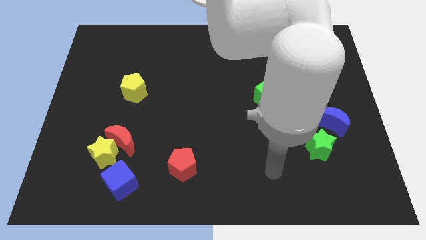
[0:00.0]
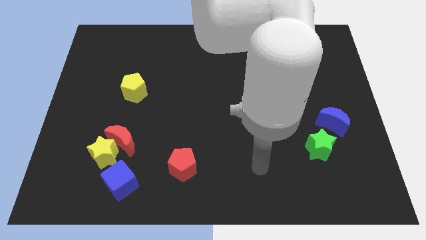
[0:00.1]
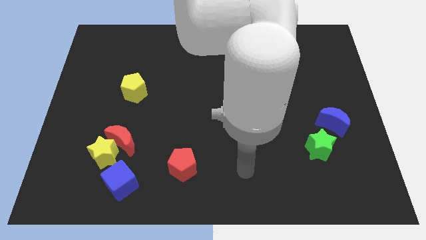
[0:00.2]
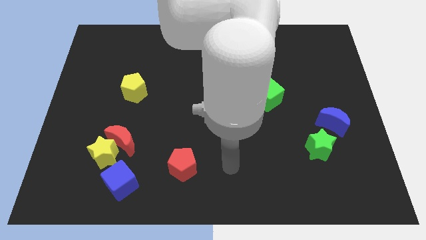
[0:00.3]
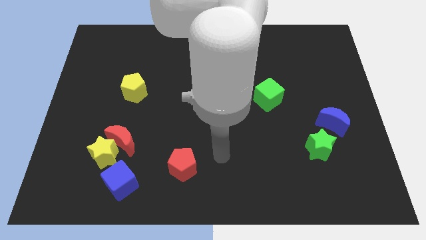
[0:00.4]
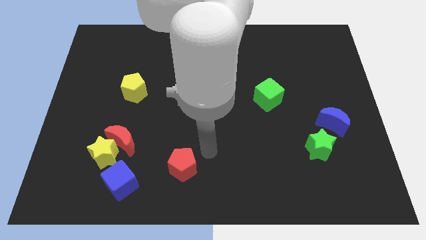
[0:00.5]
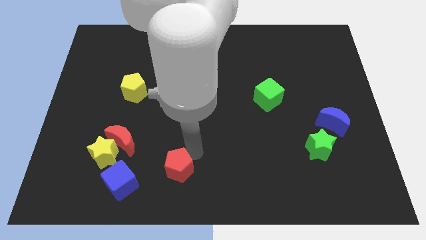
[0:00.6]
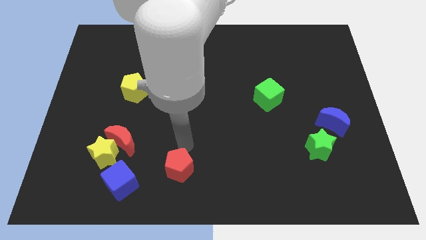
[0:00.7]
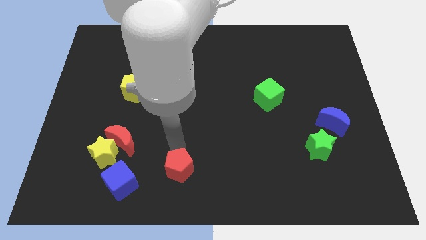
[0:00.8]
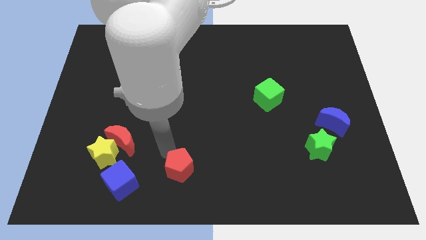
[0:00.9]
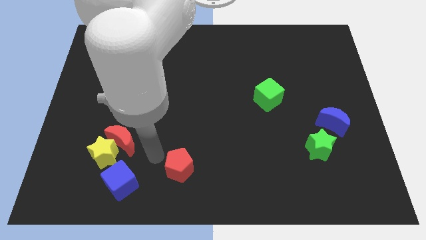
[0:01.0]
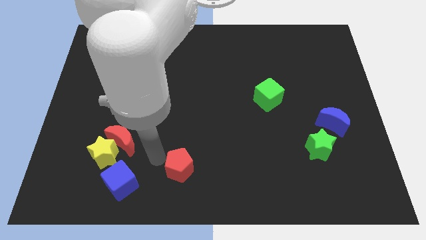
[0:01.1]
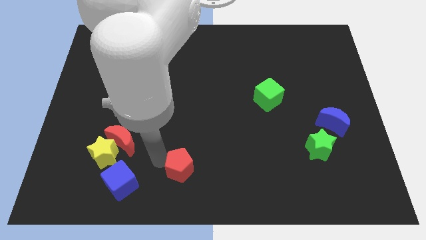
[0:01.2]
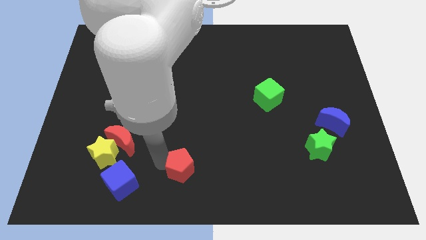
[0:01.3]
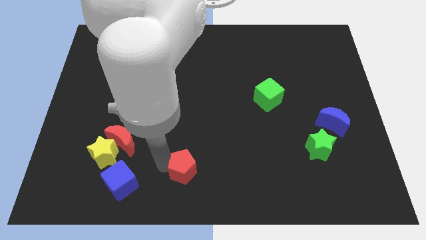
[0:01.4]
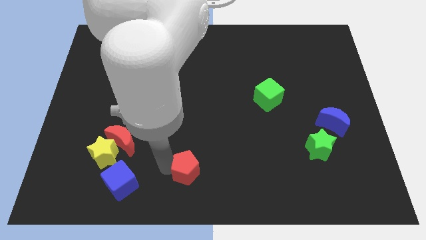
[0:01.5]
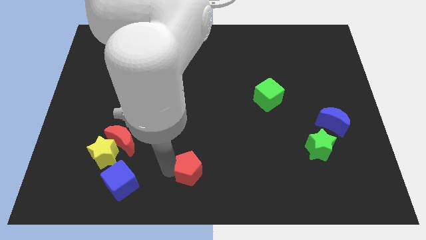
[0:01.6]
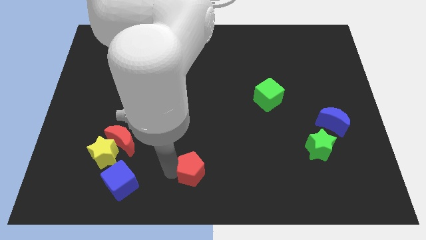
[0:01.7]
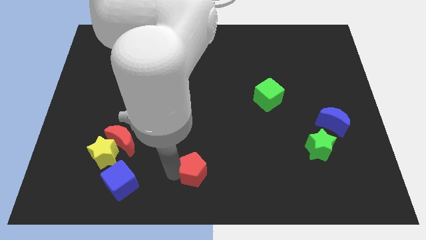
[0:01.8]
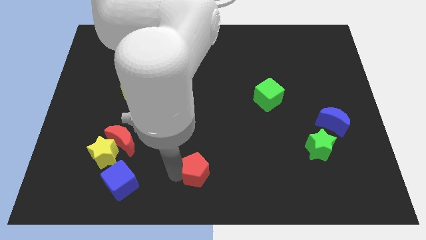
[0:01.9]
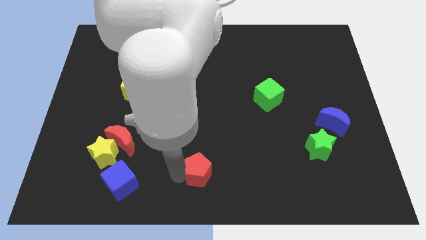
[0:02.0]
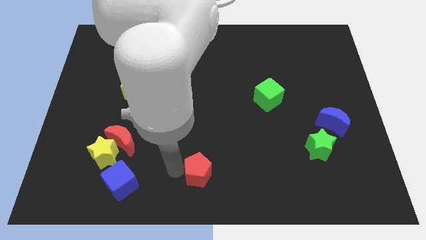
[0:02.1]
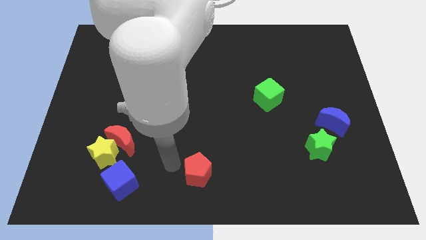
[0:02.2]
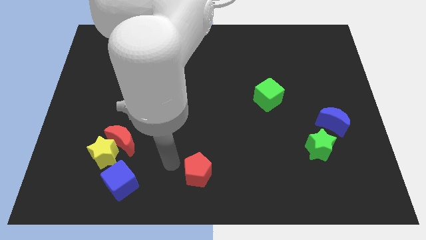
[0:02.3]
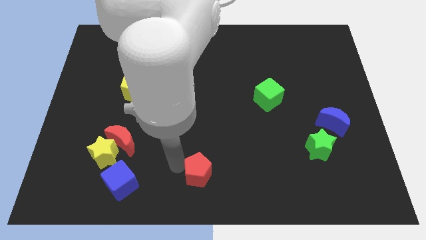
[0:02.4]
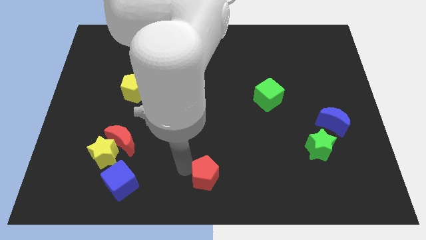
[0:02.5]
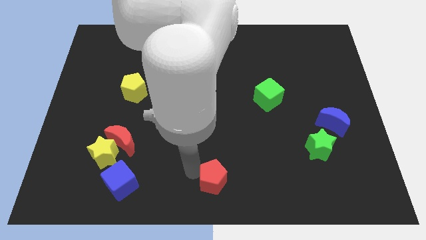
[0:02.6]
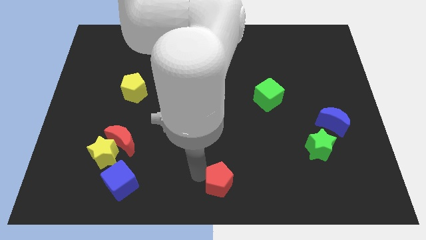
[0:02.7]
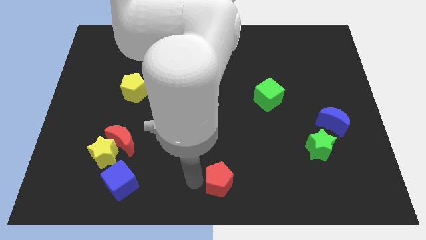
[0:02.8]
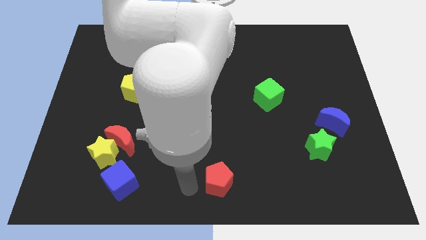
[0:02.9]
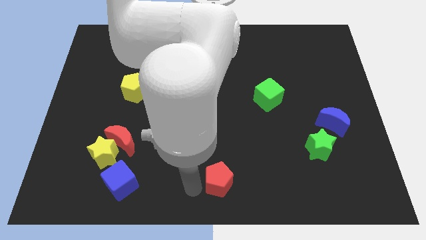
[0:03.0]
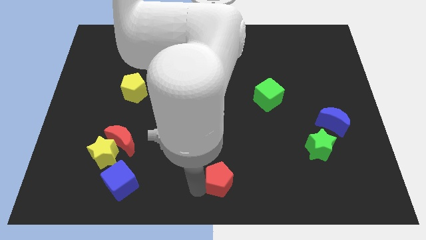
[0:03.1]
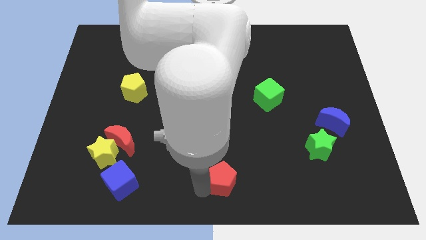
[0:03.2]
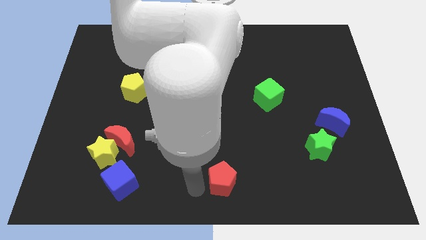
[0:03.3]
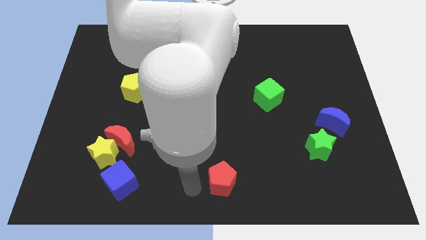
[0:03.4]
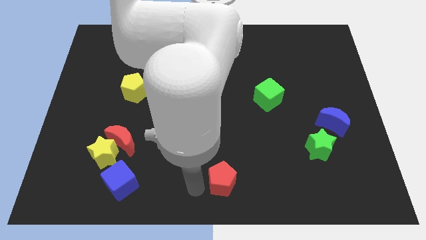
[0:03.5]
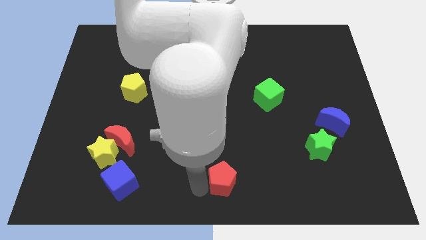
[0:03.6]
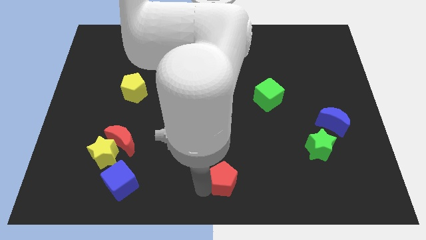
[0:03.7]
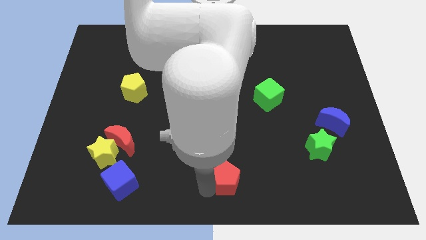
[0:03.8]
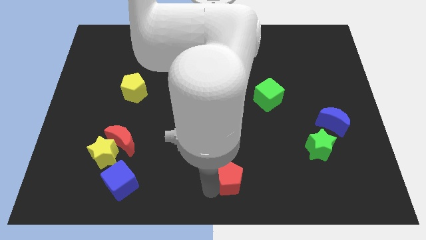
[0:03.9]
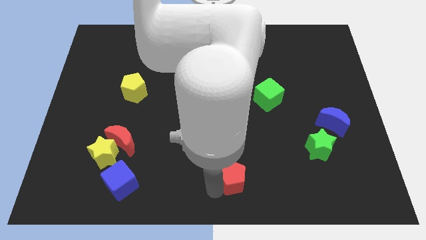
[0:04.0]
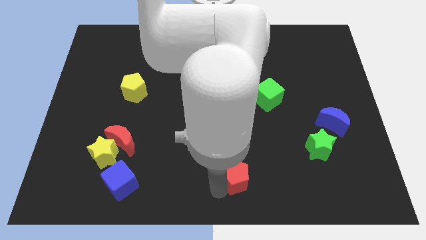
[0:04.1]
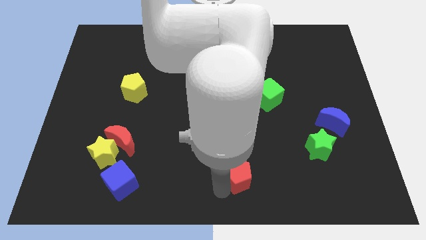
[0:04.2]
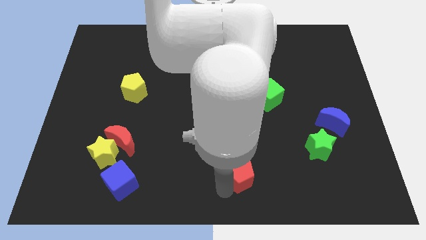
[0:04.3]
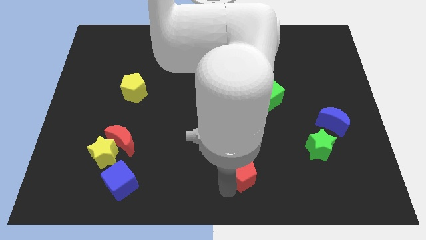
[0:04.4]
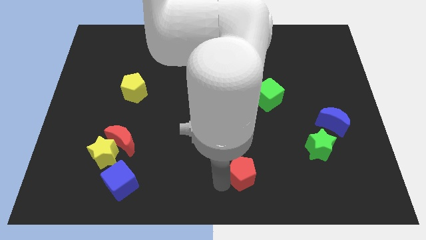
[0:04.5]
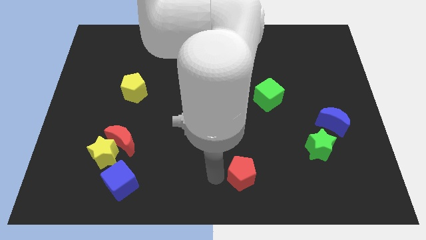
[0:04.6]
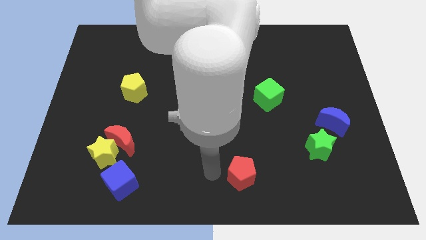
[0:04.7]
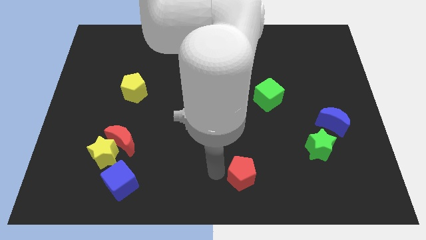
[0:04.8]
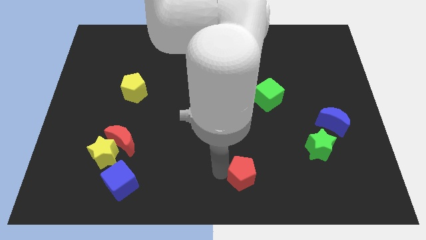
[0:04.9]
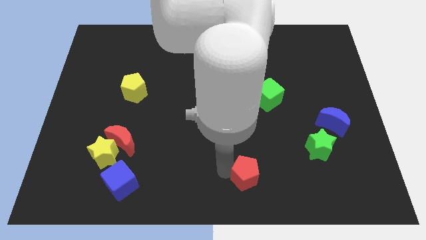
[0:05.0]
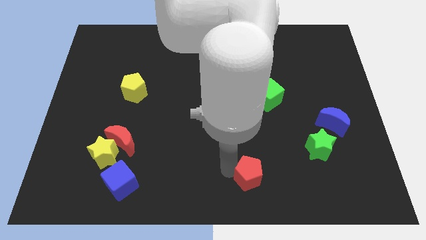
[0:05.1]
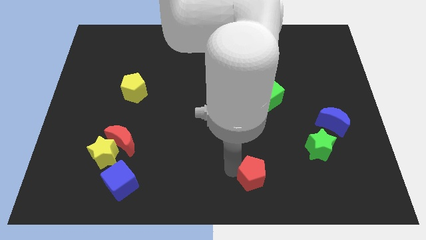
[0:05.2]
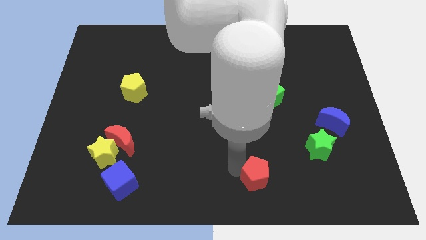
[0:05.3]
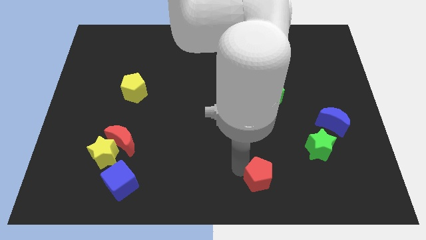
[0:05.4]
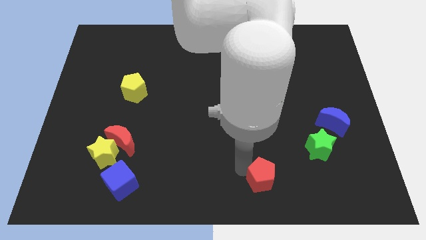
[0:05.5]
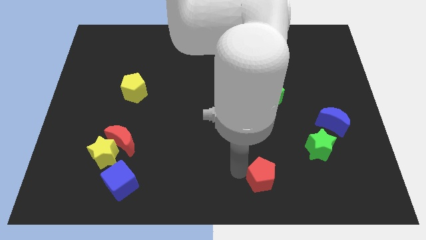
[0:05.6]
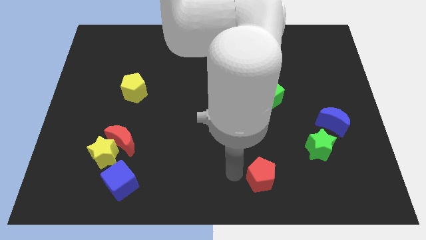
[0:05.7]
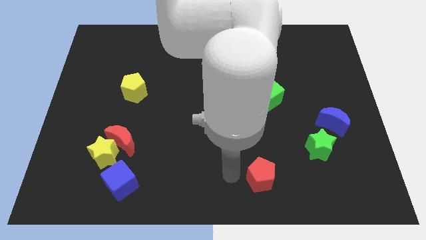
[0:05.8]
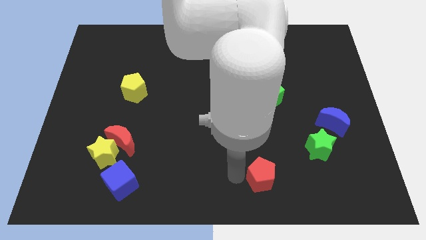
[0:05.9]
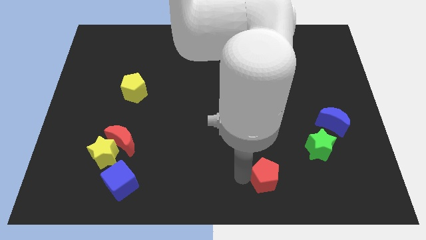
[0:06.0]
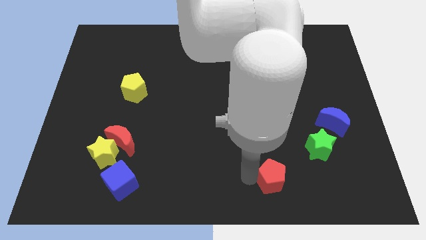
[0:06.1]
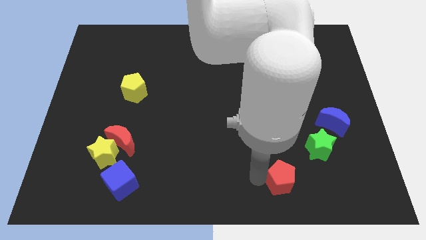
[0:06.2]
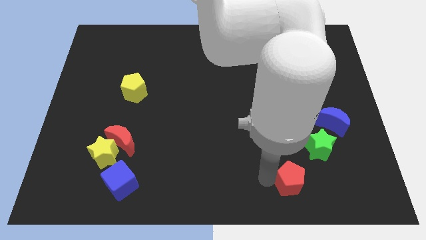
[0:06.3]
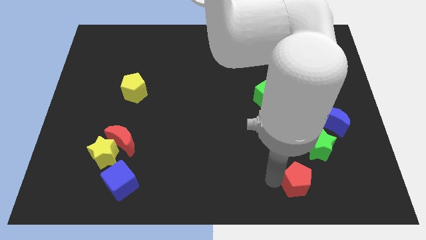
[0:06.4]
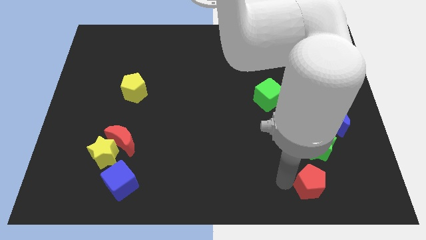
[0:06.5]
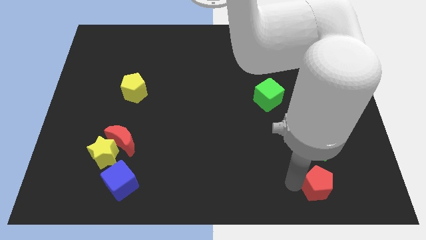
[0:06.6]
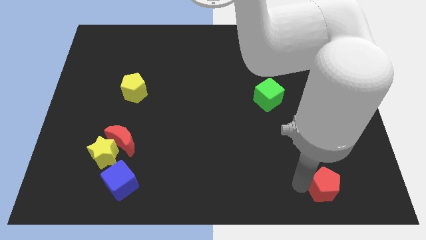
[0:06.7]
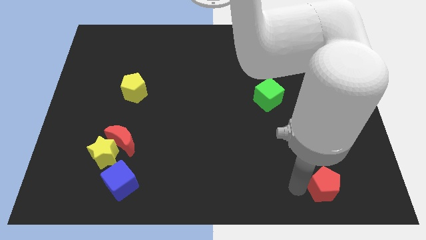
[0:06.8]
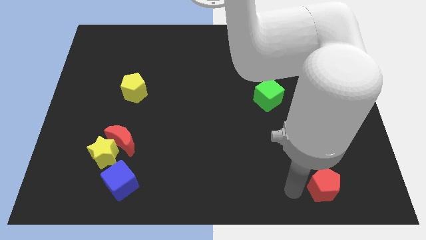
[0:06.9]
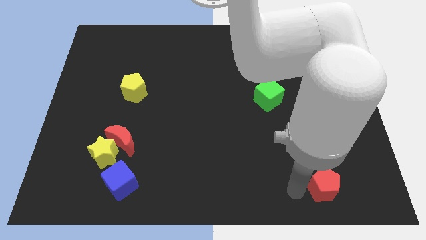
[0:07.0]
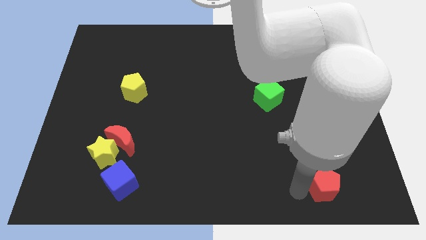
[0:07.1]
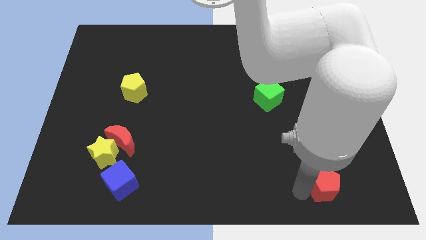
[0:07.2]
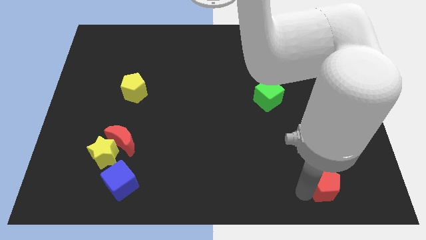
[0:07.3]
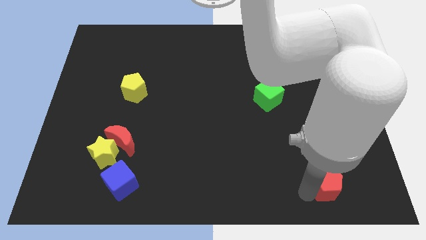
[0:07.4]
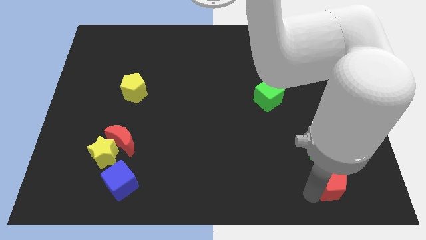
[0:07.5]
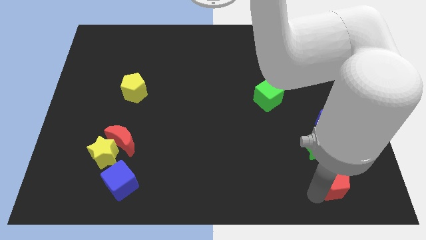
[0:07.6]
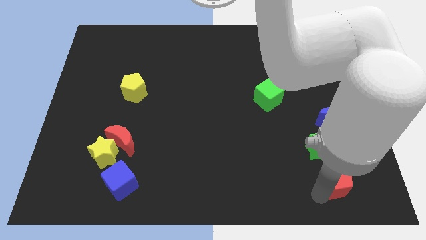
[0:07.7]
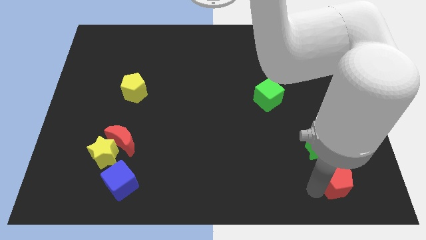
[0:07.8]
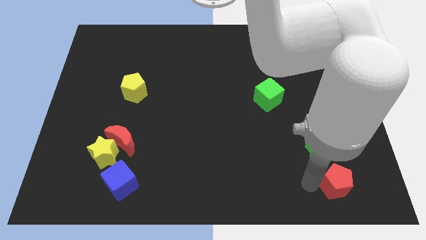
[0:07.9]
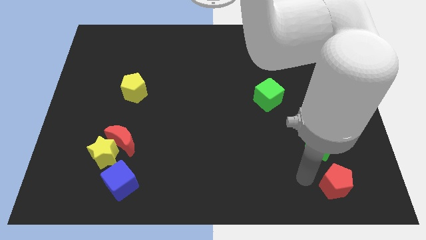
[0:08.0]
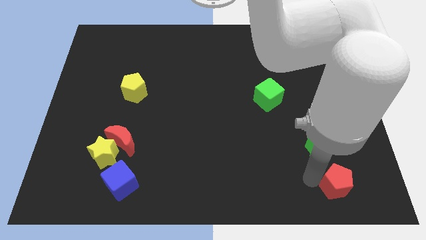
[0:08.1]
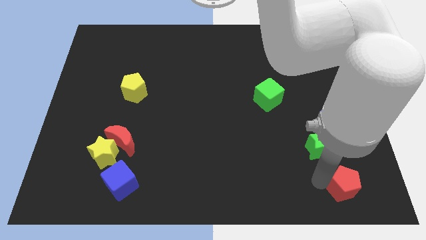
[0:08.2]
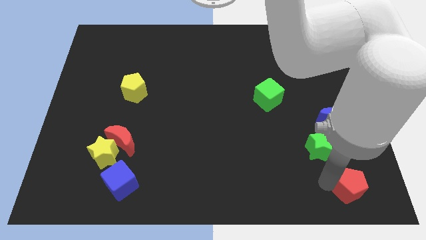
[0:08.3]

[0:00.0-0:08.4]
push the red pentagon to the lower right corner
